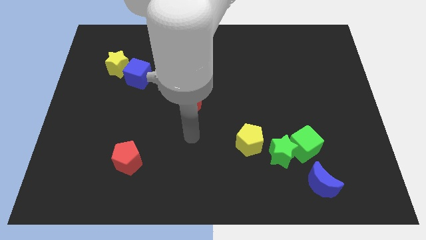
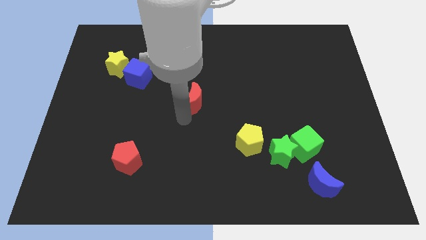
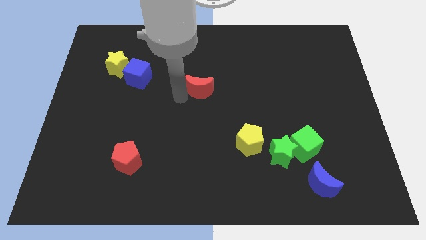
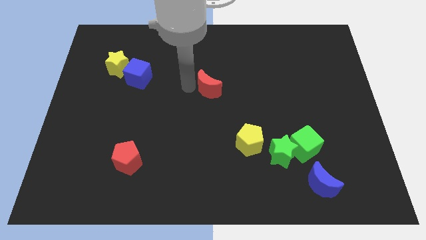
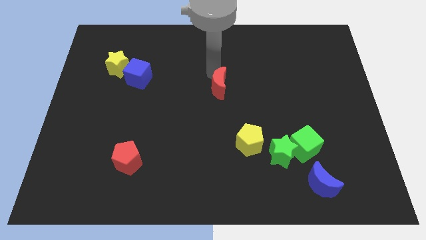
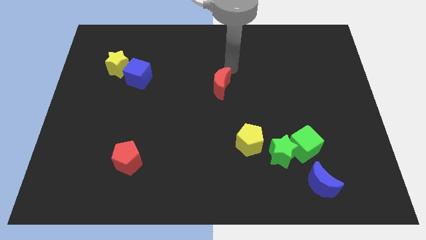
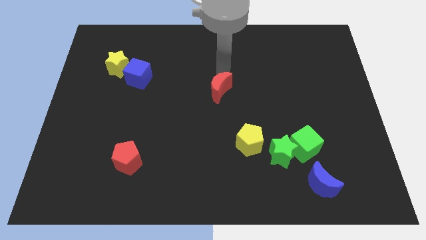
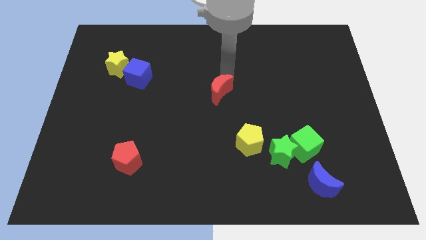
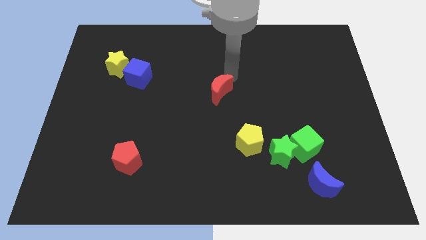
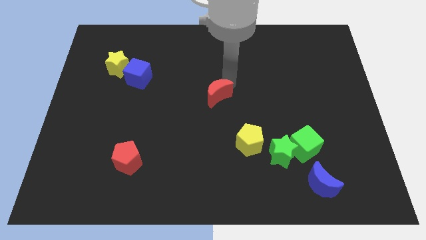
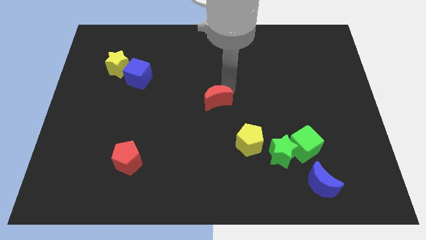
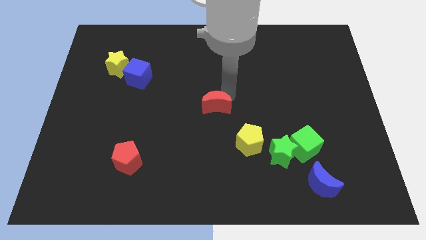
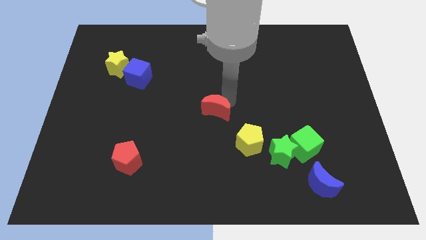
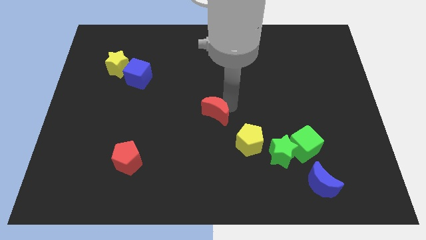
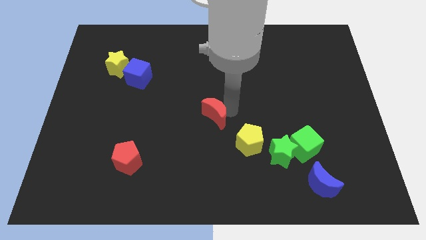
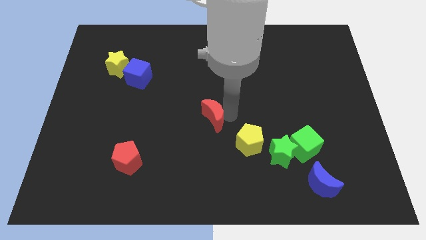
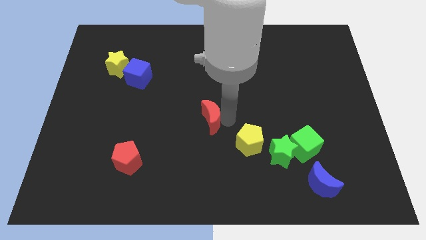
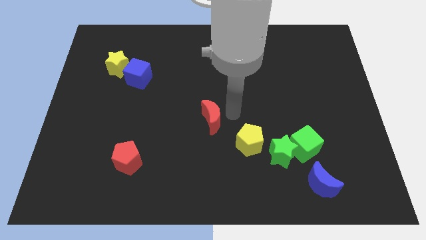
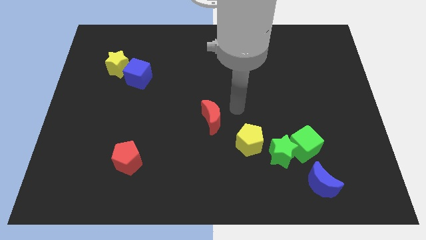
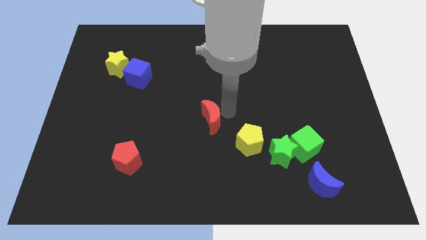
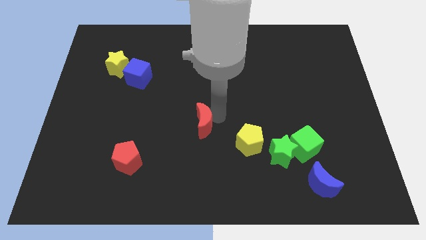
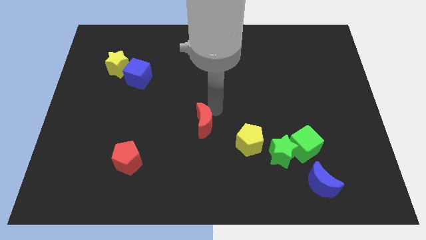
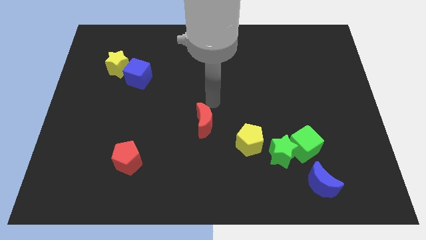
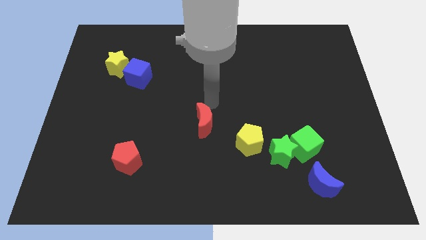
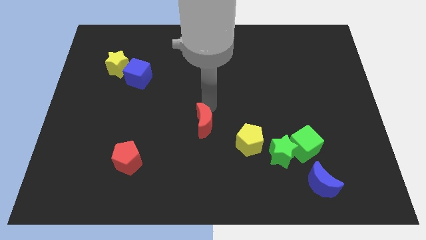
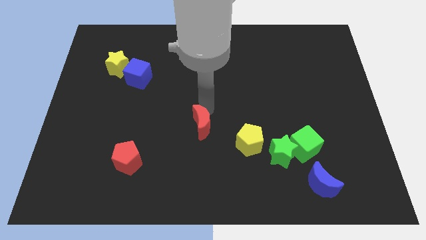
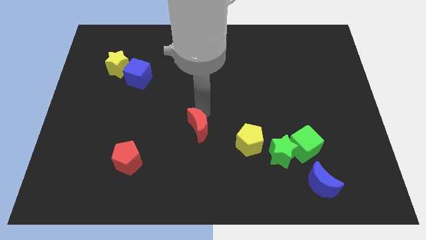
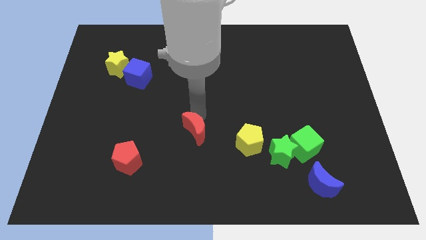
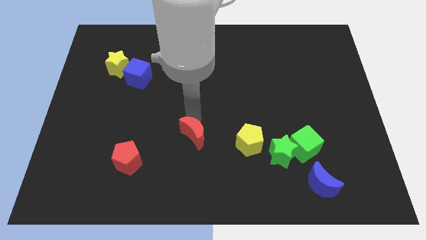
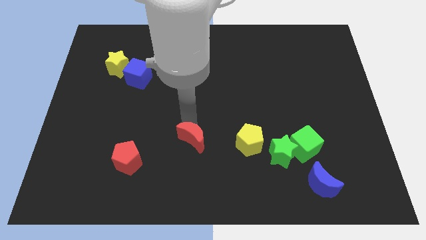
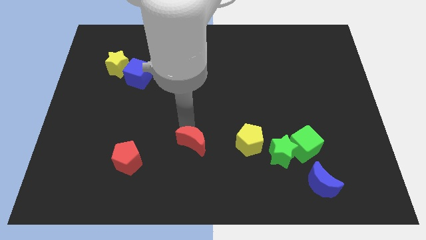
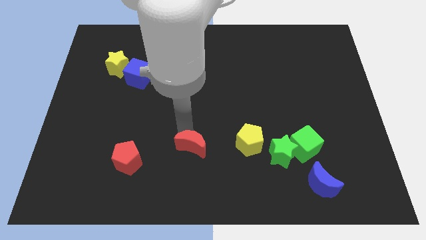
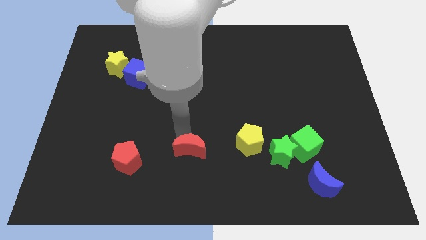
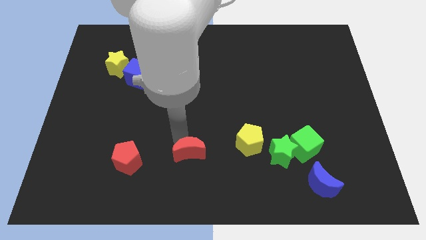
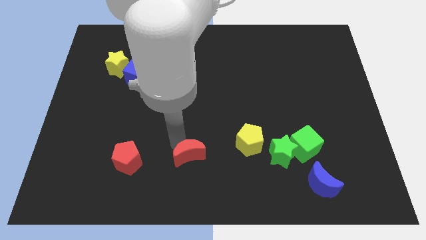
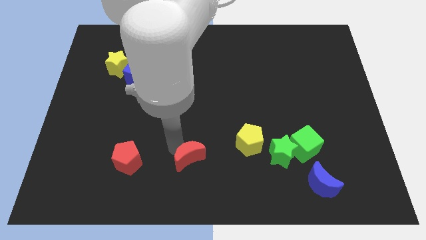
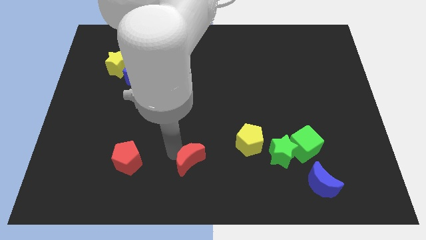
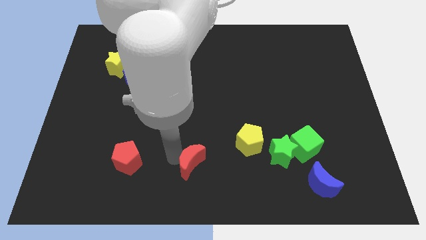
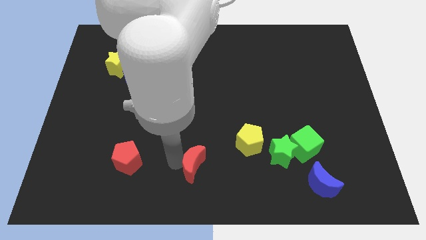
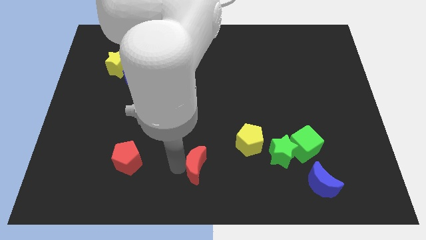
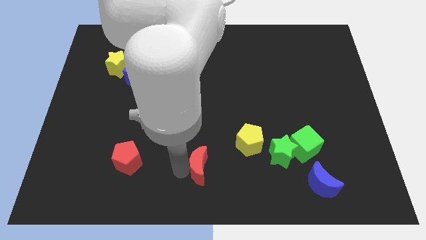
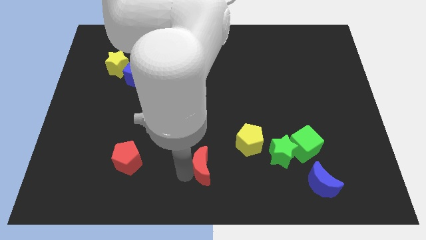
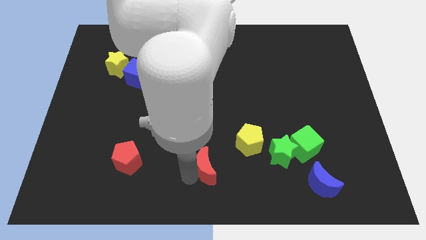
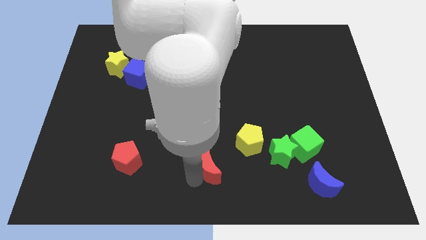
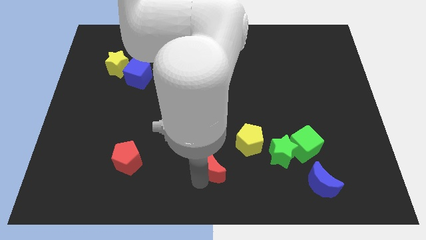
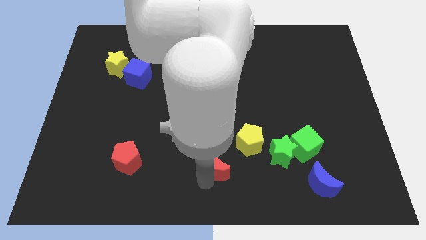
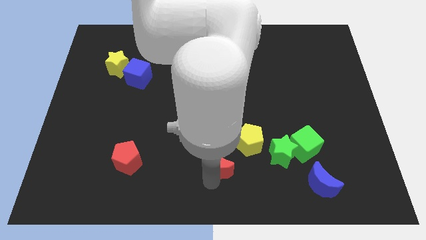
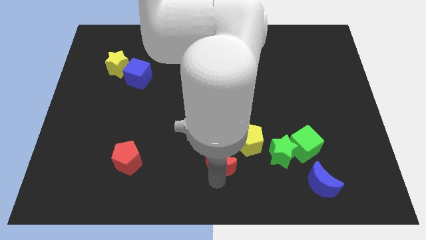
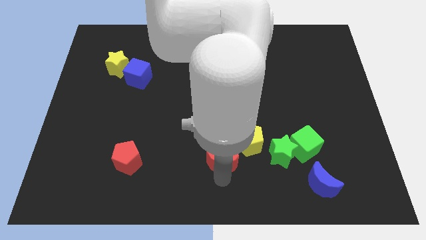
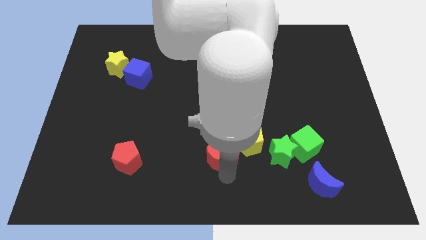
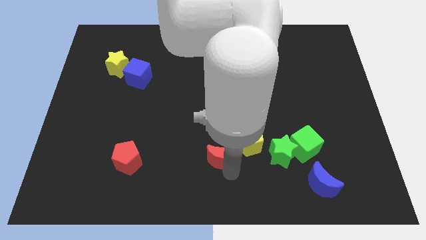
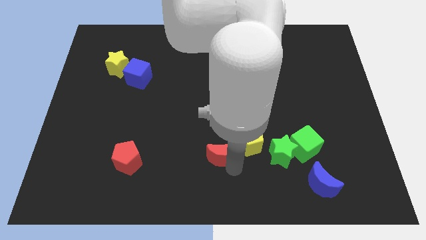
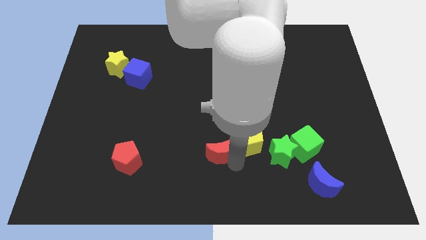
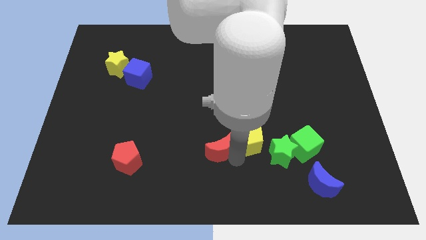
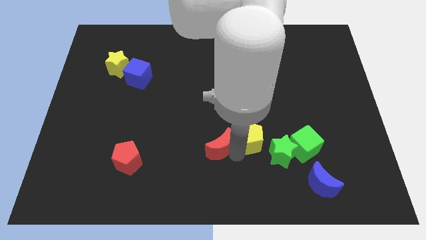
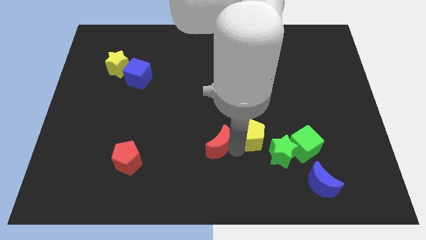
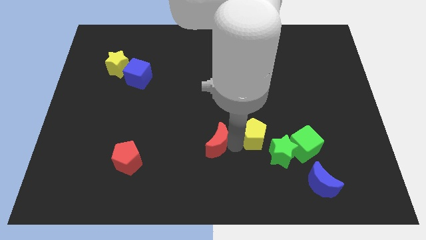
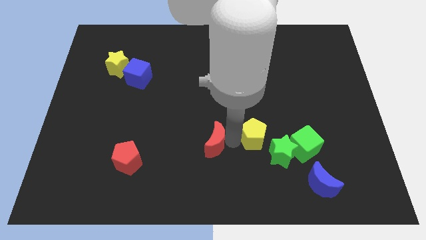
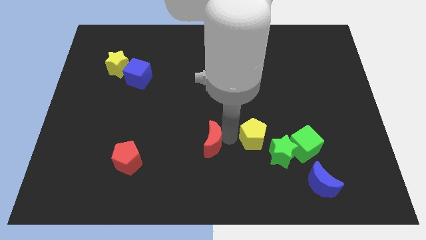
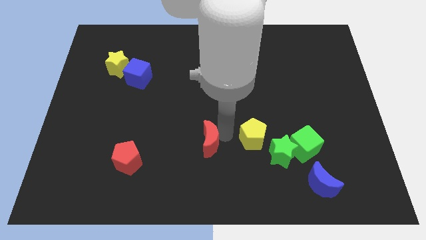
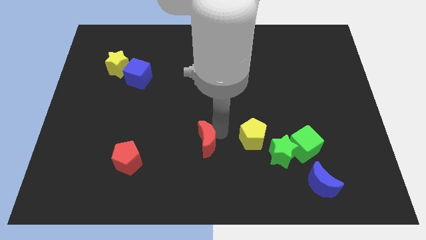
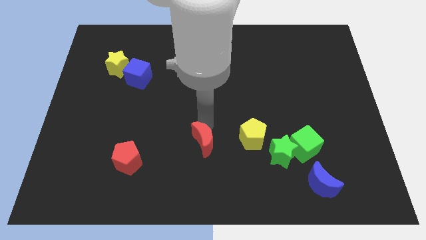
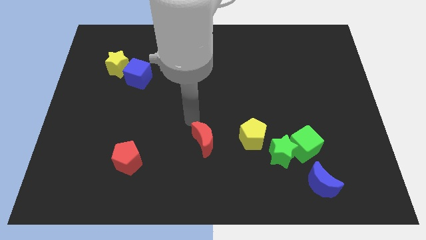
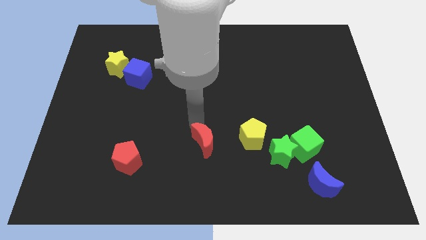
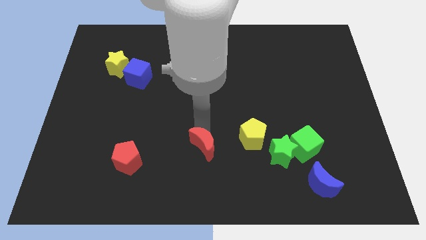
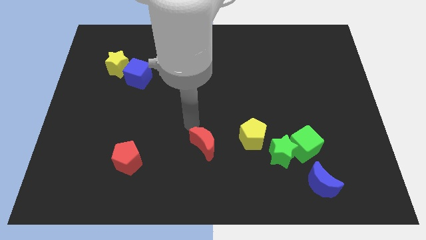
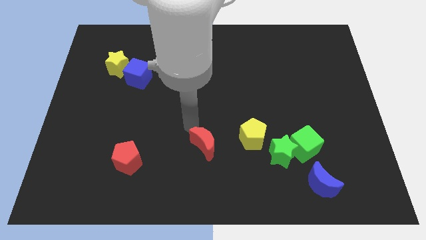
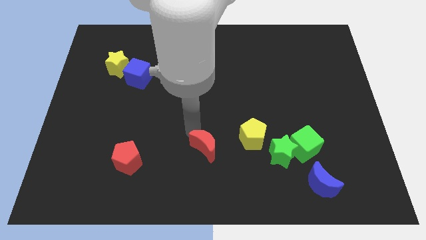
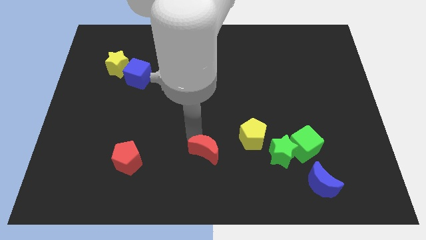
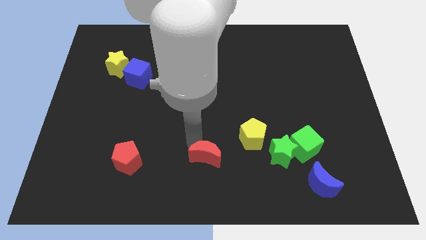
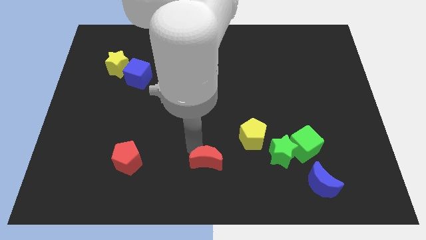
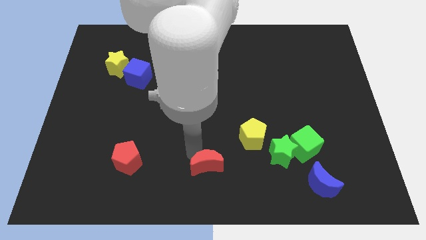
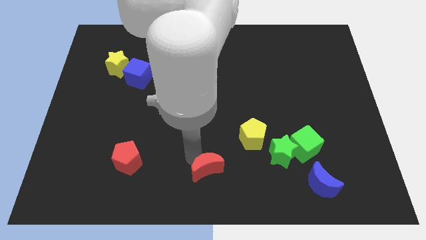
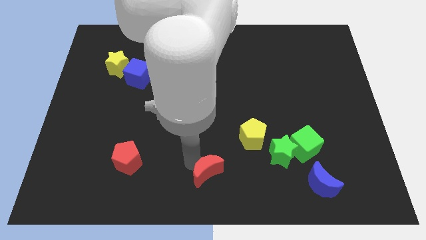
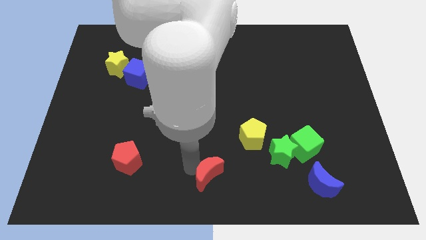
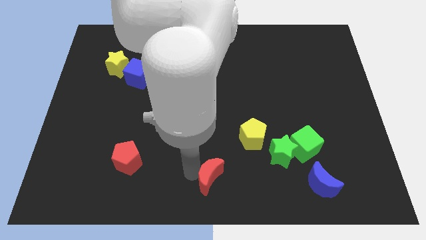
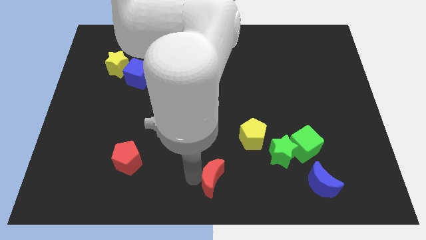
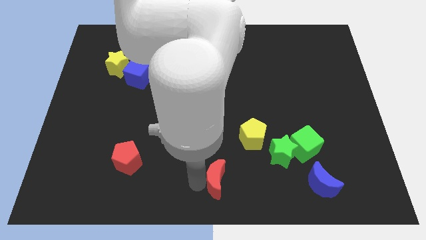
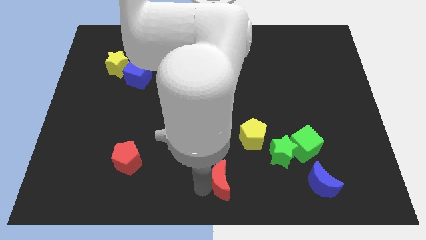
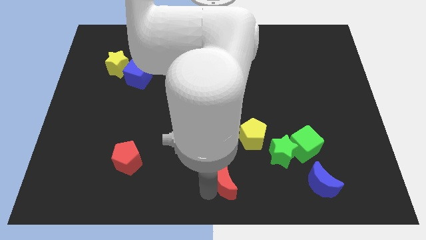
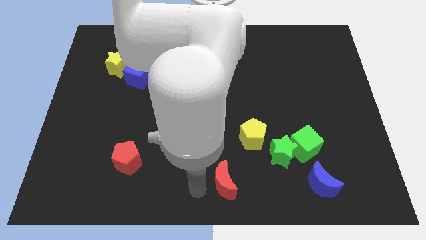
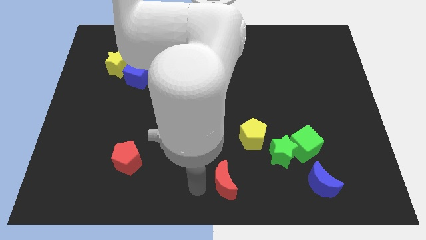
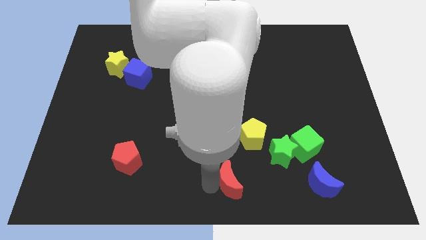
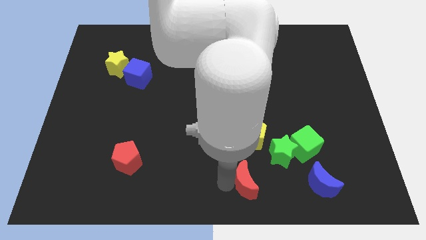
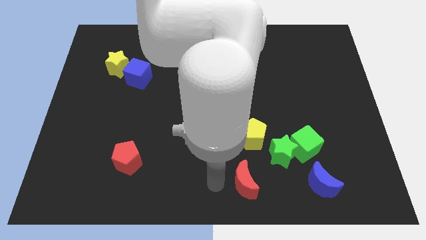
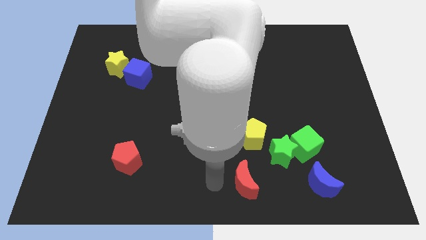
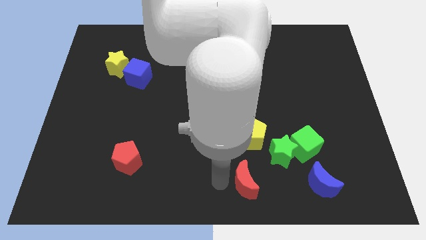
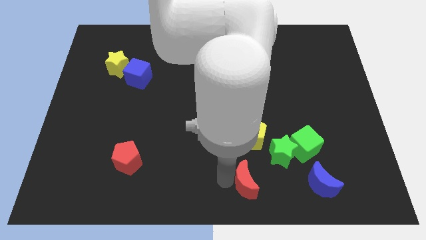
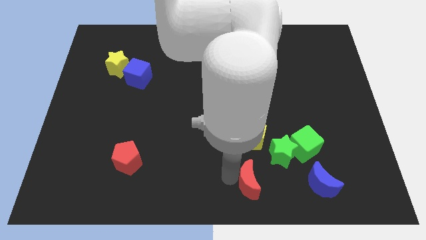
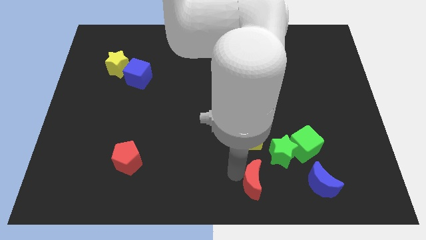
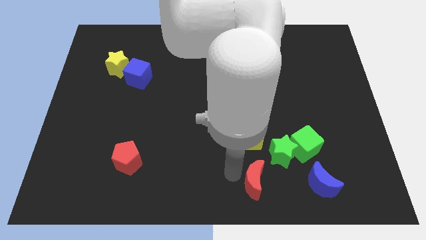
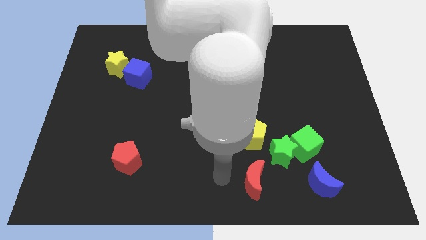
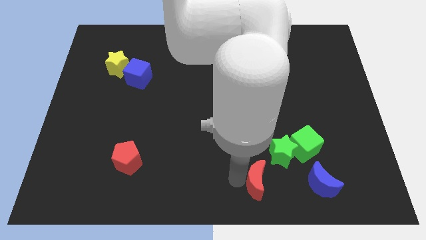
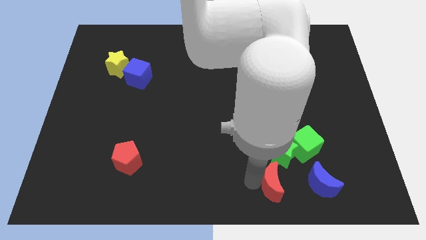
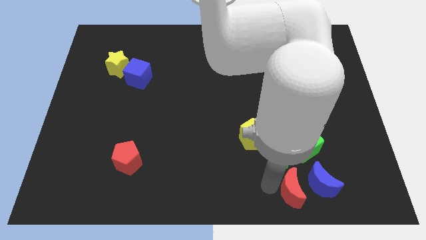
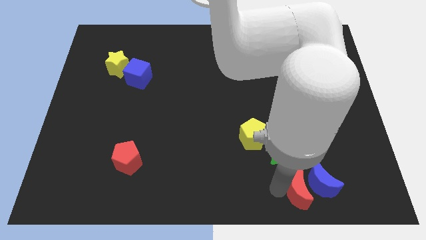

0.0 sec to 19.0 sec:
slide the red moon towards the blue moon
